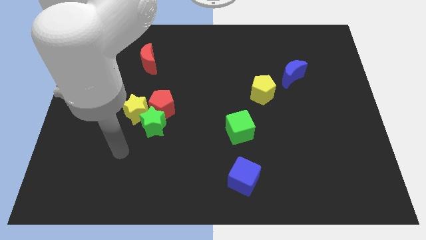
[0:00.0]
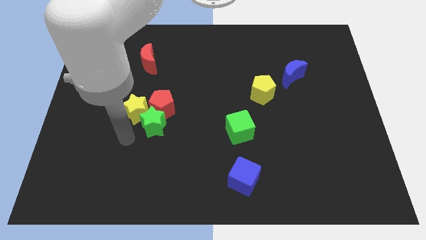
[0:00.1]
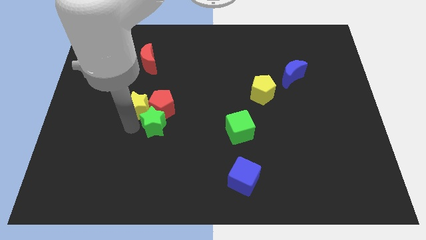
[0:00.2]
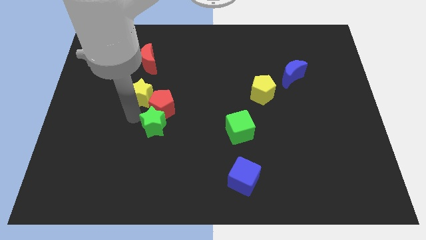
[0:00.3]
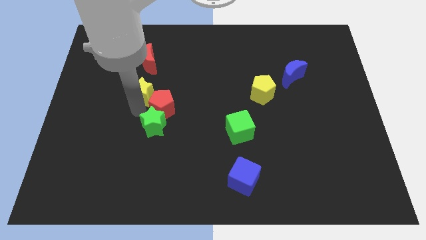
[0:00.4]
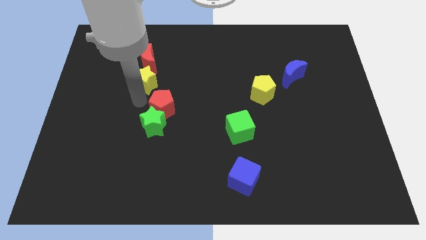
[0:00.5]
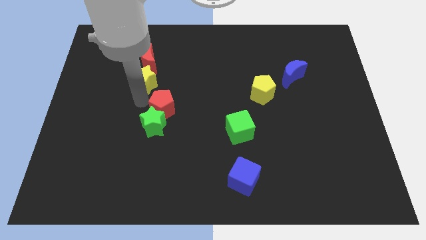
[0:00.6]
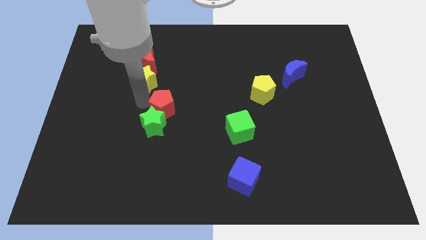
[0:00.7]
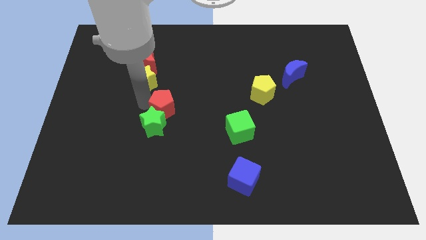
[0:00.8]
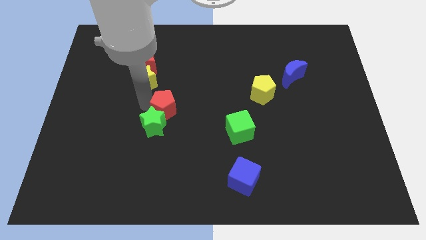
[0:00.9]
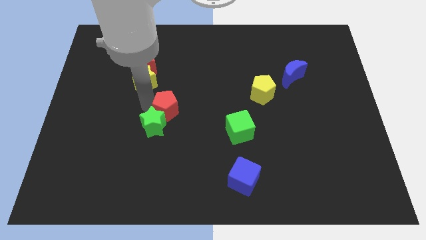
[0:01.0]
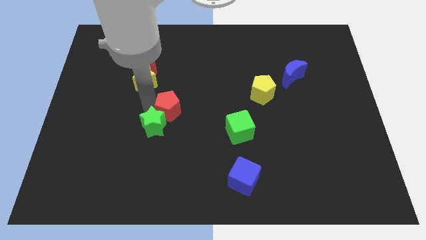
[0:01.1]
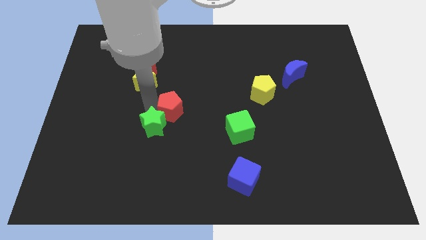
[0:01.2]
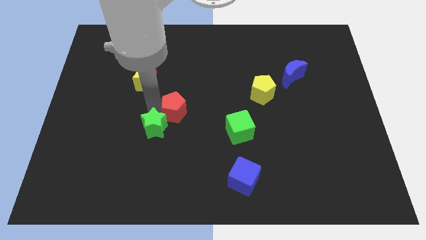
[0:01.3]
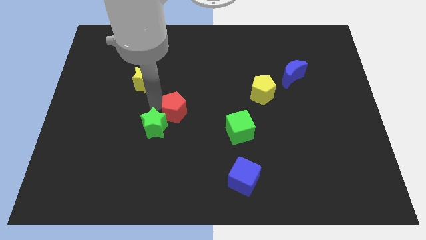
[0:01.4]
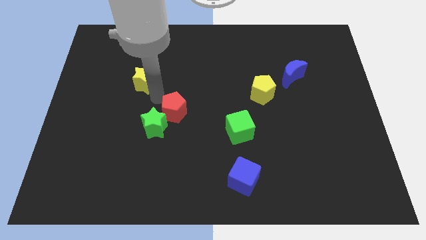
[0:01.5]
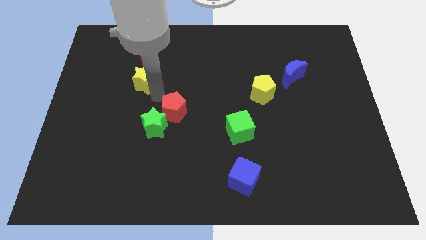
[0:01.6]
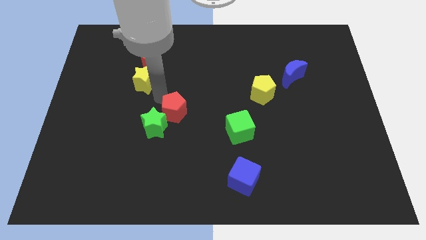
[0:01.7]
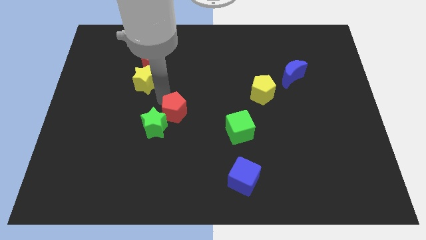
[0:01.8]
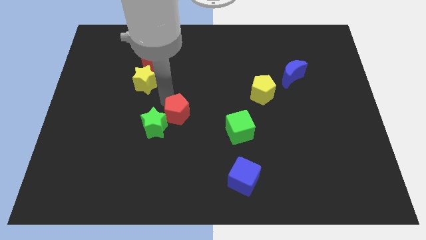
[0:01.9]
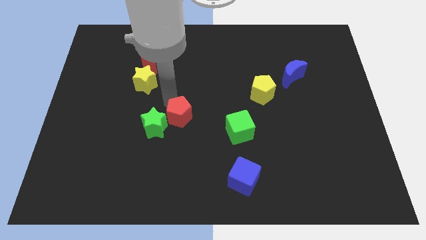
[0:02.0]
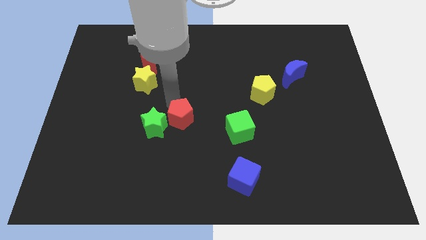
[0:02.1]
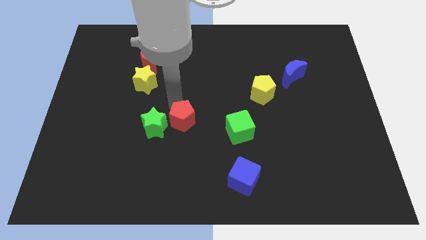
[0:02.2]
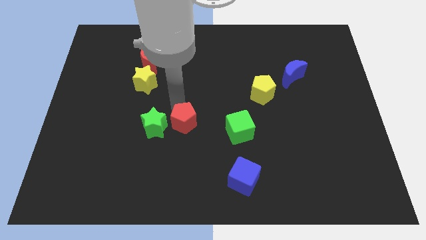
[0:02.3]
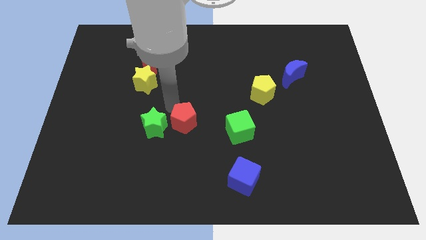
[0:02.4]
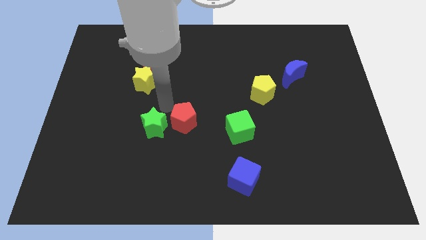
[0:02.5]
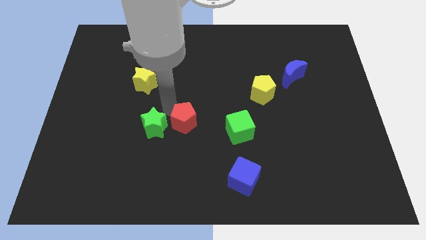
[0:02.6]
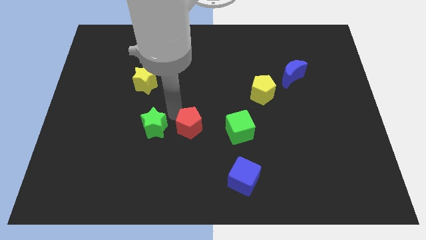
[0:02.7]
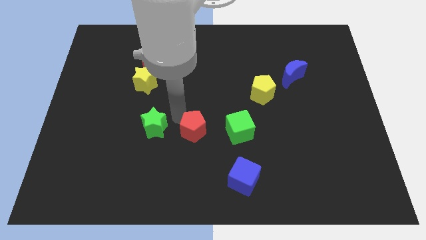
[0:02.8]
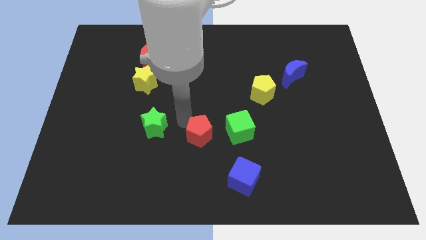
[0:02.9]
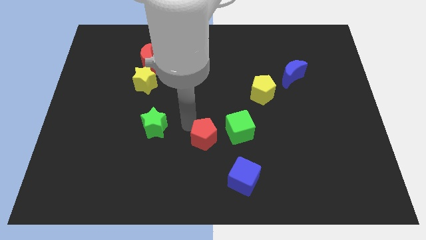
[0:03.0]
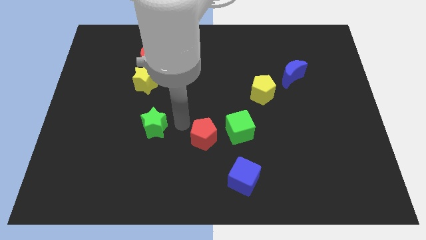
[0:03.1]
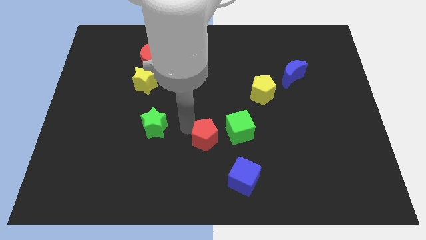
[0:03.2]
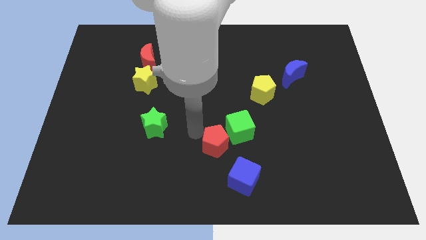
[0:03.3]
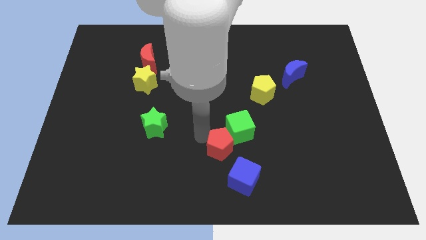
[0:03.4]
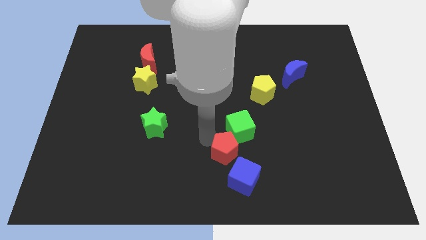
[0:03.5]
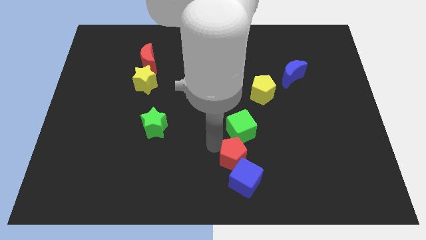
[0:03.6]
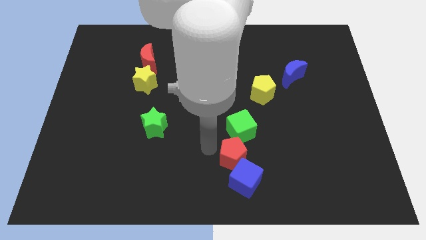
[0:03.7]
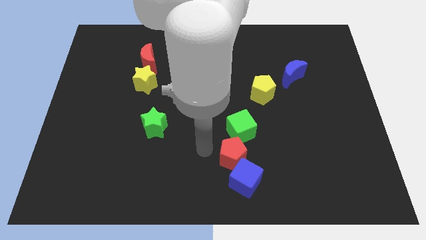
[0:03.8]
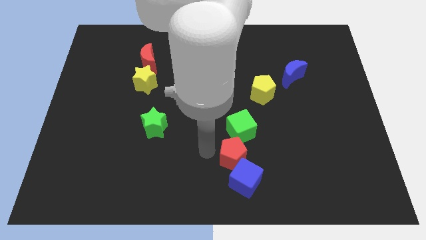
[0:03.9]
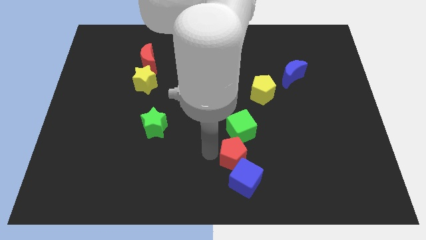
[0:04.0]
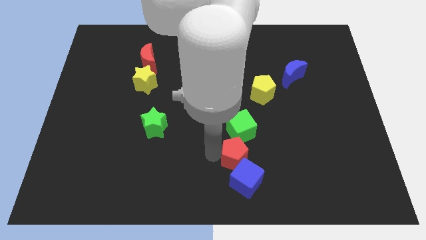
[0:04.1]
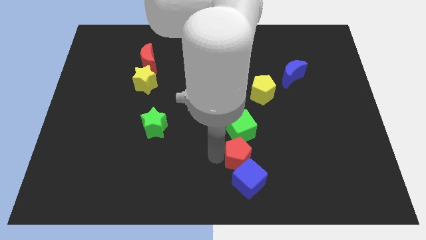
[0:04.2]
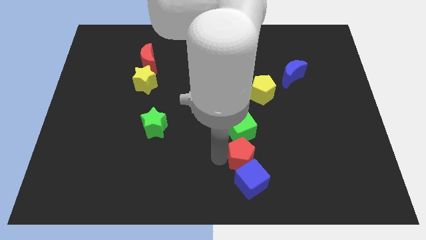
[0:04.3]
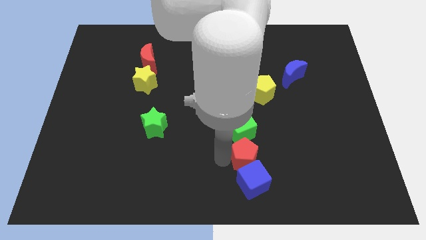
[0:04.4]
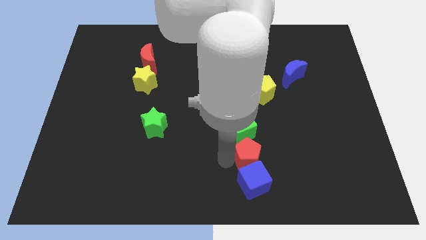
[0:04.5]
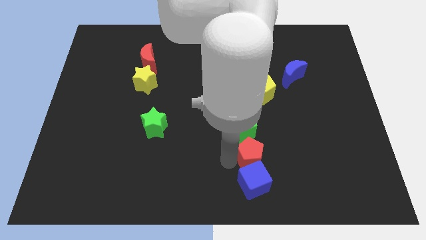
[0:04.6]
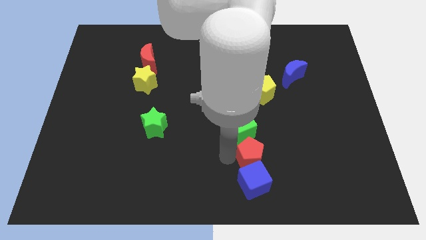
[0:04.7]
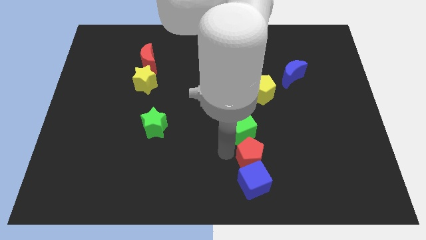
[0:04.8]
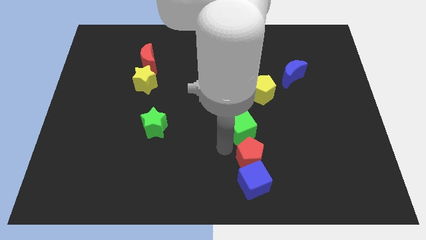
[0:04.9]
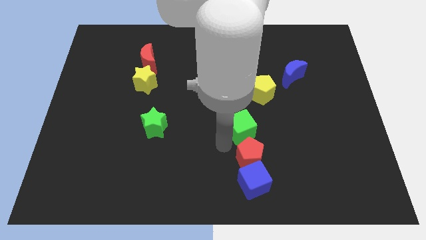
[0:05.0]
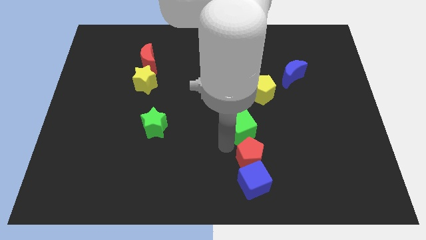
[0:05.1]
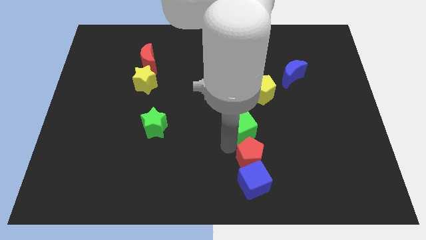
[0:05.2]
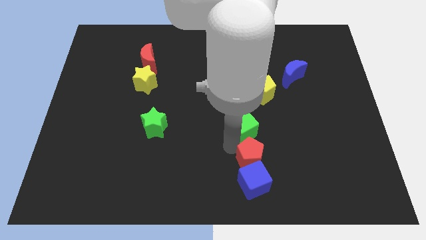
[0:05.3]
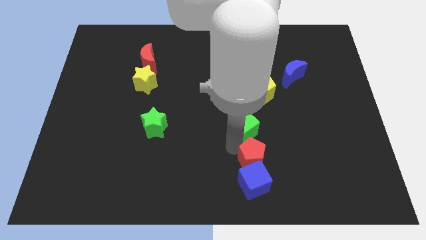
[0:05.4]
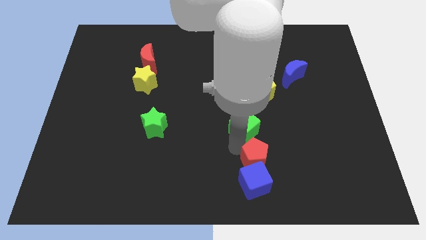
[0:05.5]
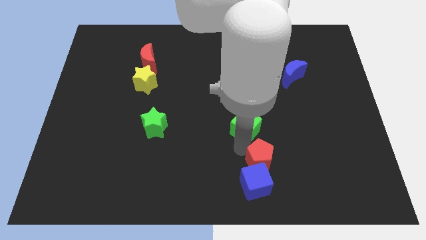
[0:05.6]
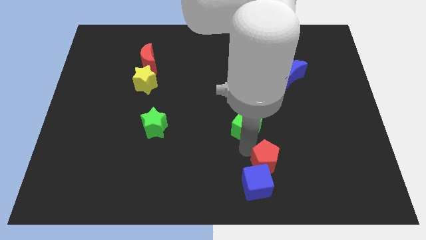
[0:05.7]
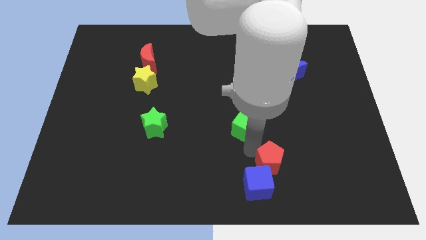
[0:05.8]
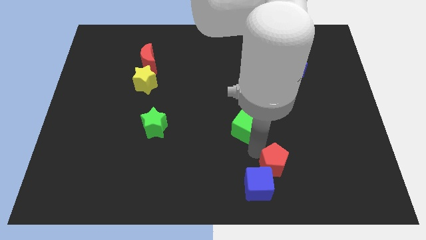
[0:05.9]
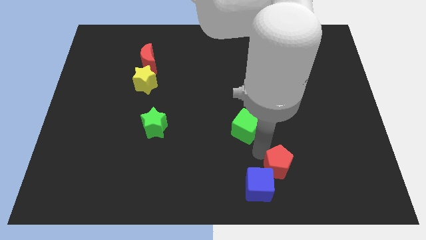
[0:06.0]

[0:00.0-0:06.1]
push the red pentagon to the right of the blue cube

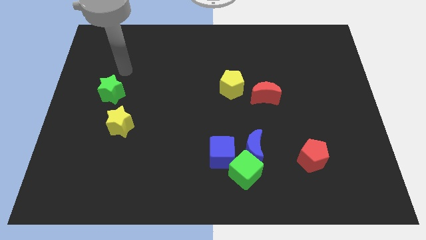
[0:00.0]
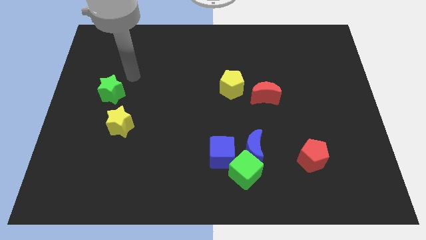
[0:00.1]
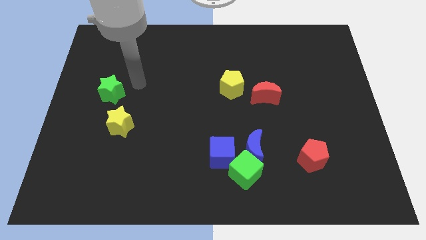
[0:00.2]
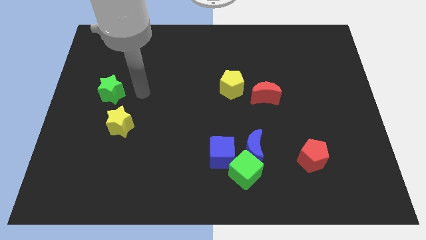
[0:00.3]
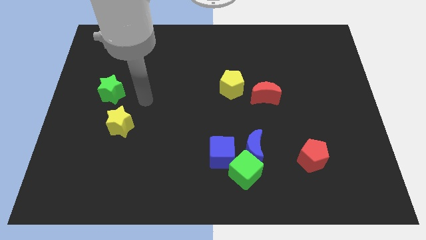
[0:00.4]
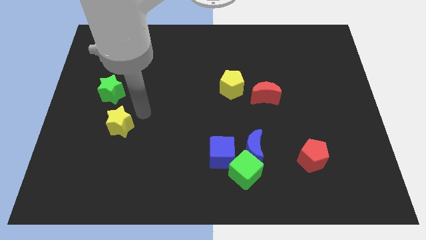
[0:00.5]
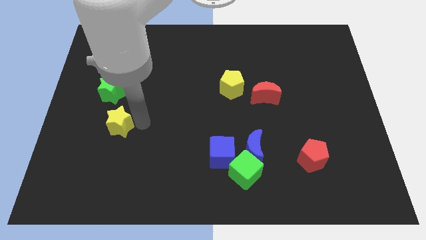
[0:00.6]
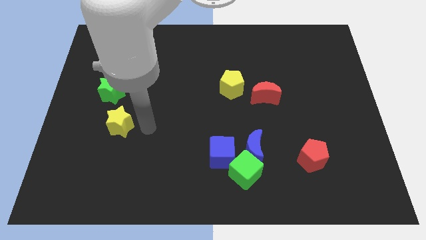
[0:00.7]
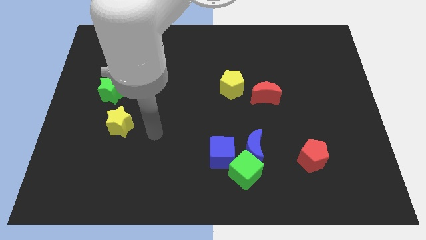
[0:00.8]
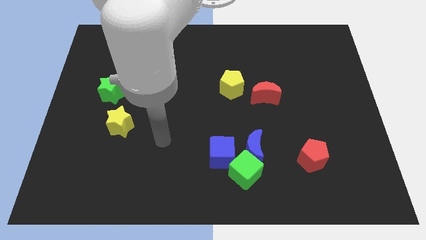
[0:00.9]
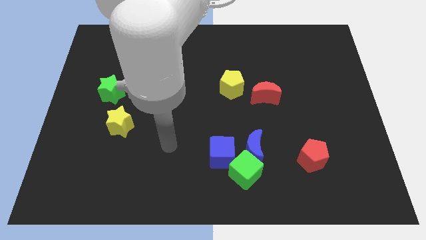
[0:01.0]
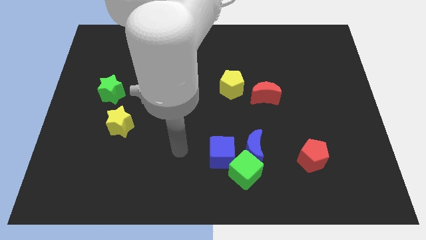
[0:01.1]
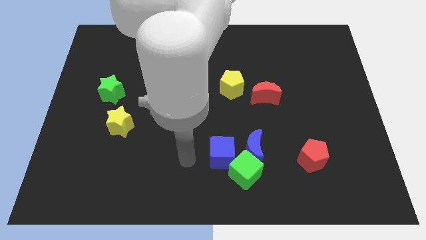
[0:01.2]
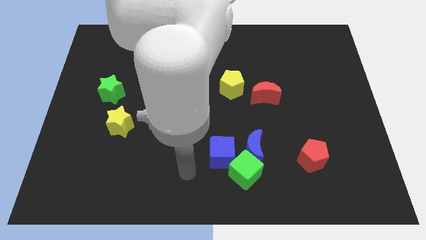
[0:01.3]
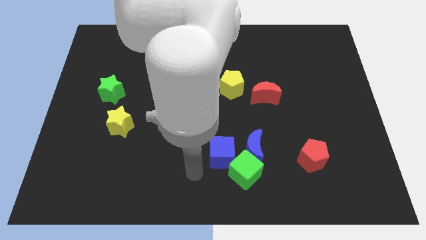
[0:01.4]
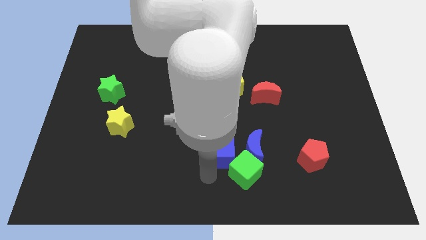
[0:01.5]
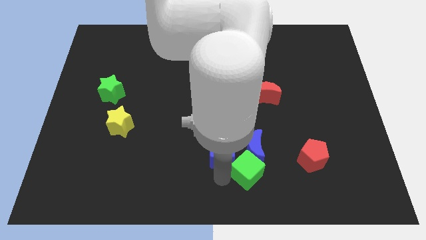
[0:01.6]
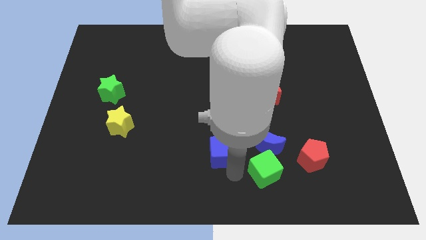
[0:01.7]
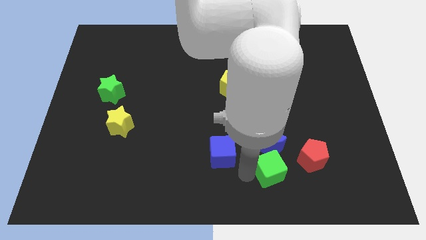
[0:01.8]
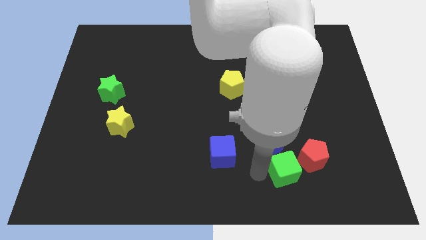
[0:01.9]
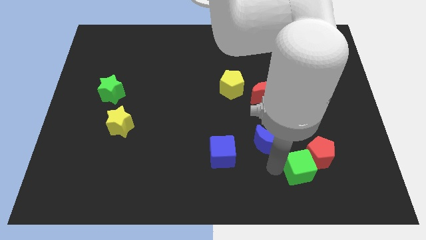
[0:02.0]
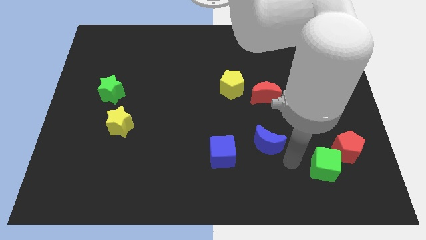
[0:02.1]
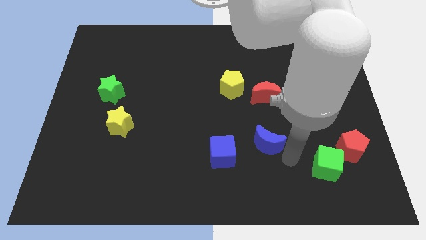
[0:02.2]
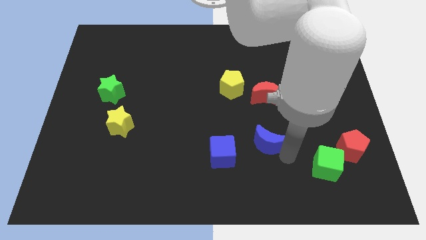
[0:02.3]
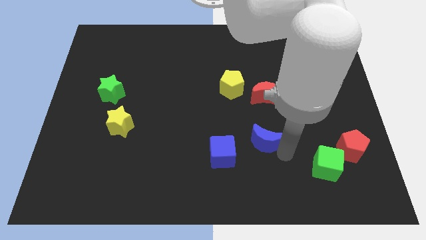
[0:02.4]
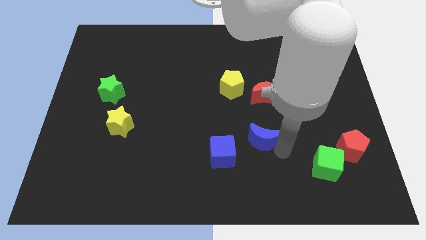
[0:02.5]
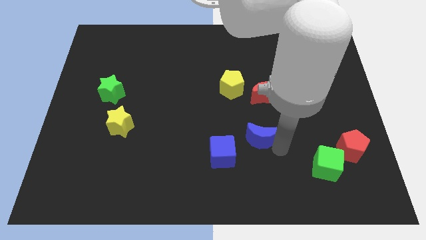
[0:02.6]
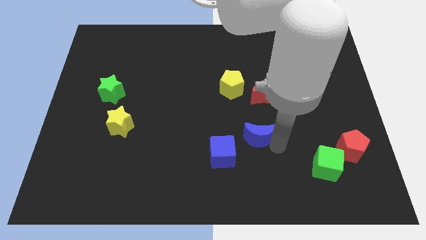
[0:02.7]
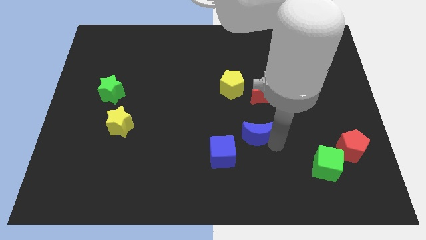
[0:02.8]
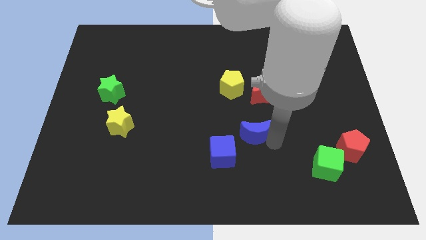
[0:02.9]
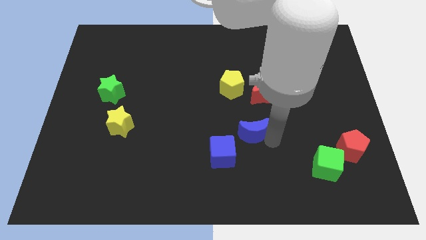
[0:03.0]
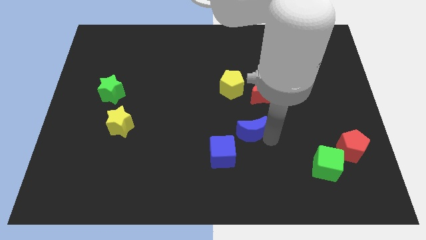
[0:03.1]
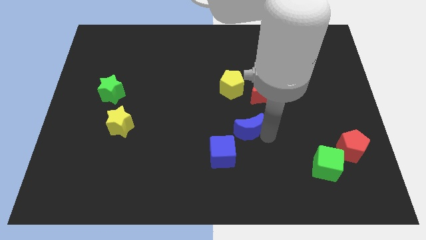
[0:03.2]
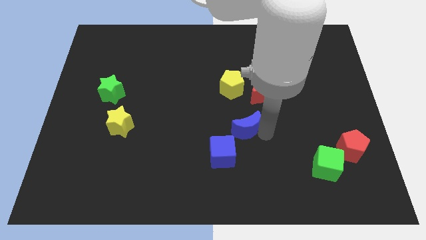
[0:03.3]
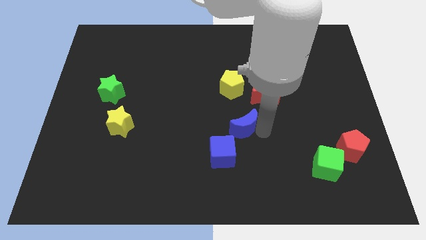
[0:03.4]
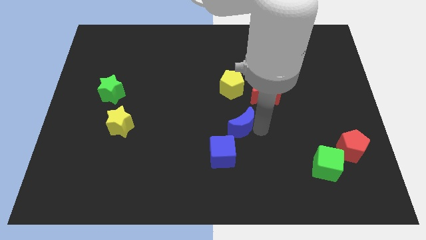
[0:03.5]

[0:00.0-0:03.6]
push the blue moon above the blue cube
